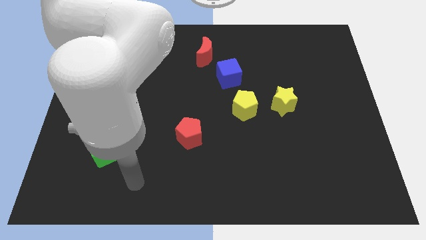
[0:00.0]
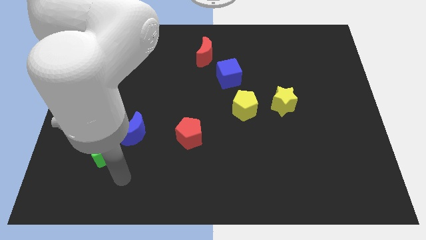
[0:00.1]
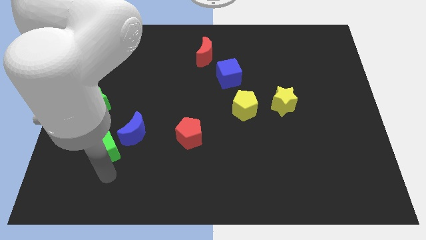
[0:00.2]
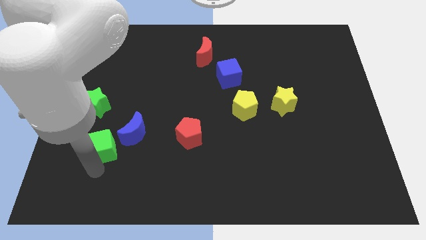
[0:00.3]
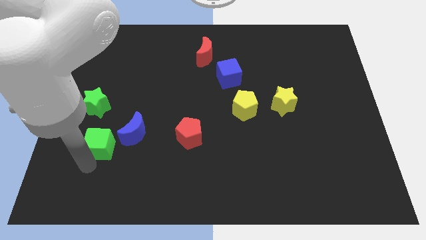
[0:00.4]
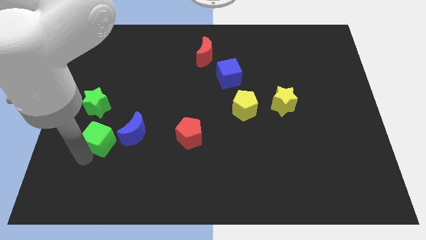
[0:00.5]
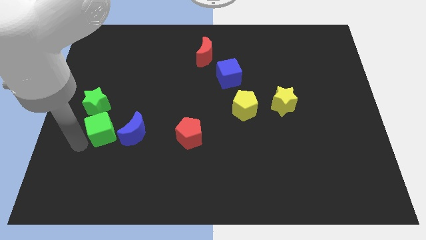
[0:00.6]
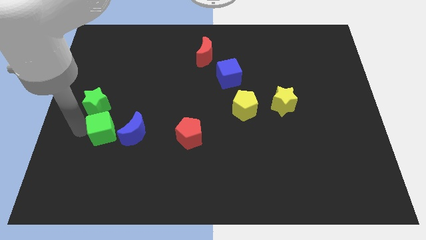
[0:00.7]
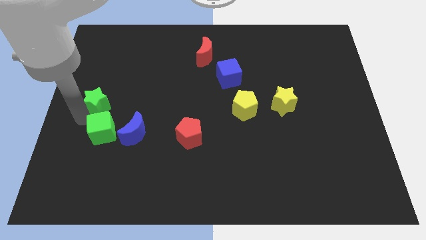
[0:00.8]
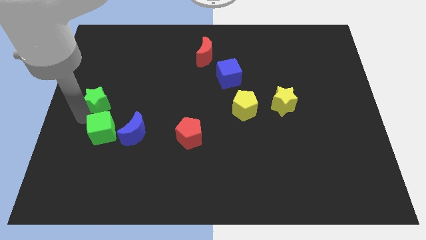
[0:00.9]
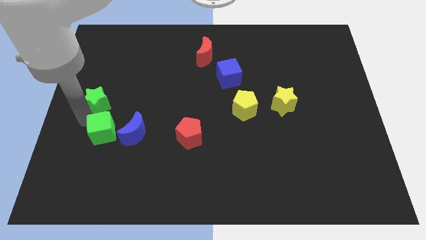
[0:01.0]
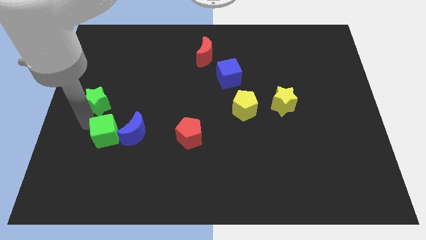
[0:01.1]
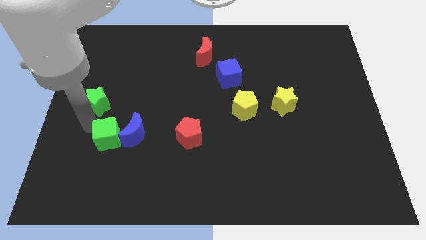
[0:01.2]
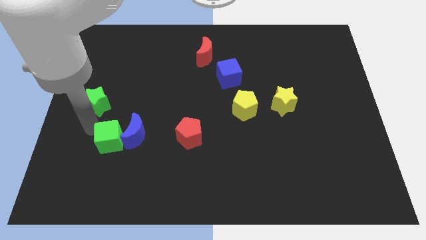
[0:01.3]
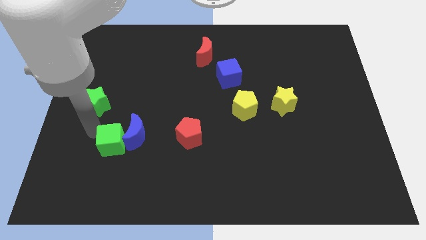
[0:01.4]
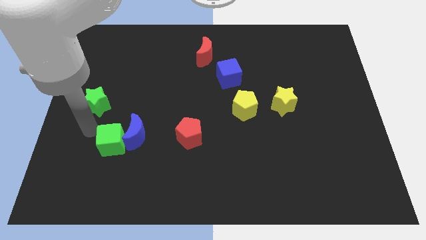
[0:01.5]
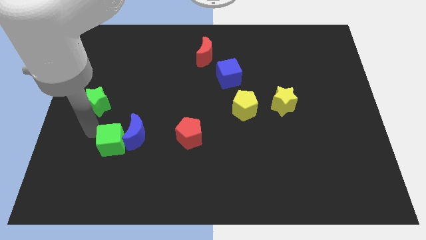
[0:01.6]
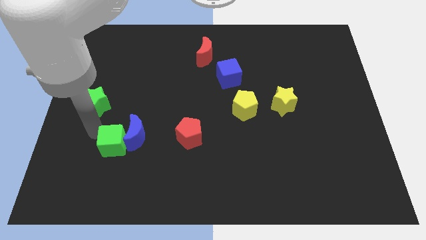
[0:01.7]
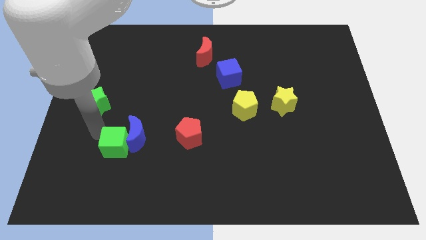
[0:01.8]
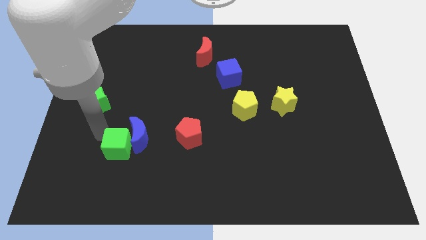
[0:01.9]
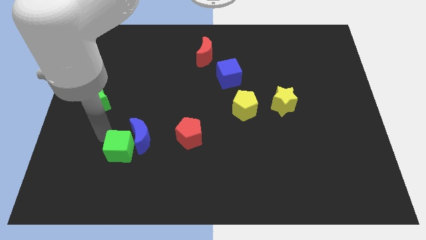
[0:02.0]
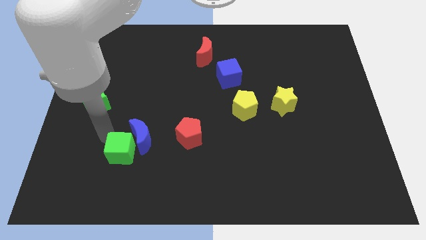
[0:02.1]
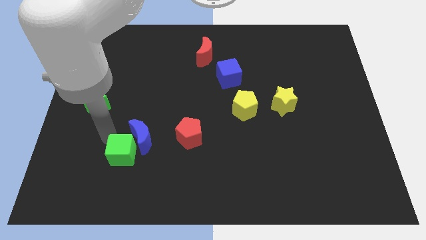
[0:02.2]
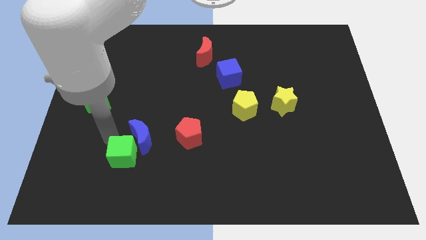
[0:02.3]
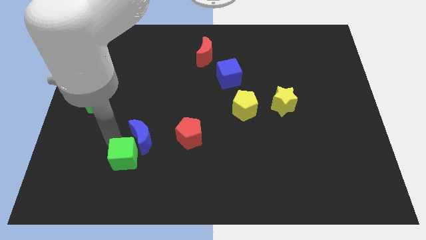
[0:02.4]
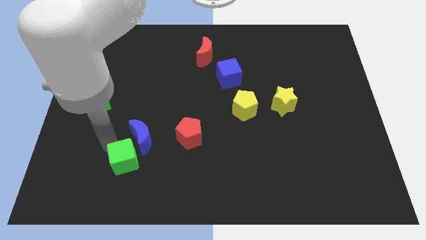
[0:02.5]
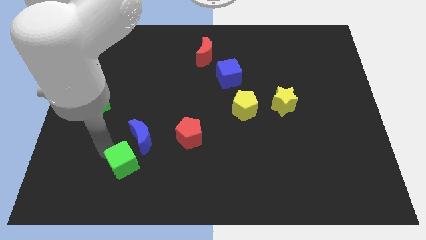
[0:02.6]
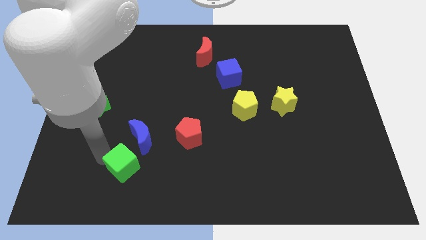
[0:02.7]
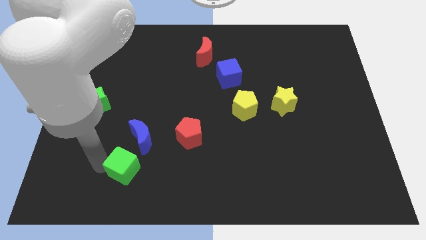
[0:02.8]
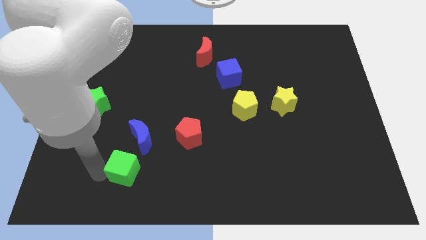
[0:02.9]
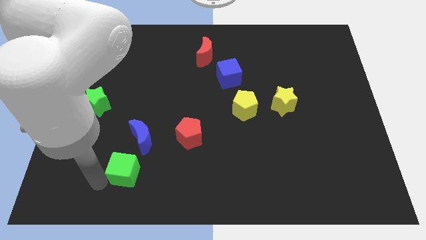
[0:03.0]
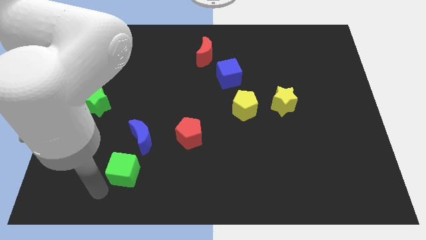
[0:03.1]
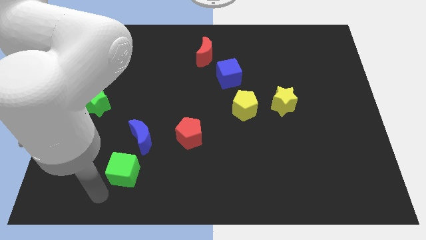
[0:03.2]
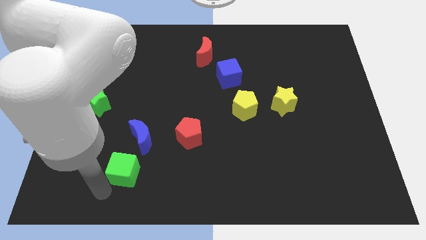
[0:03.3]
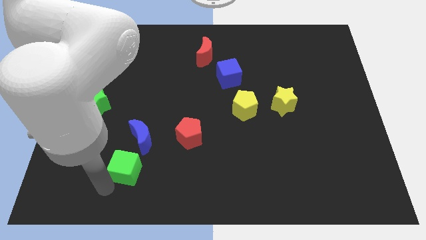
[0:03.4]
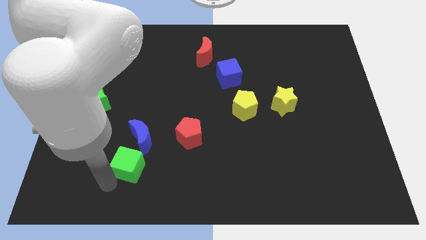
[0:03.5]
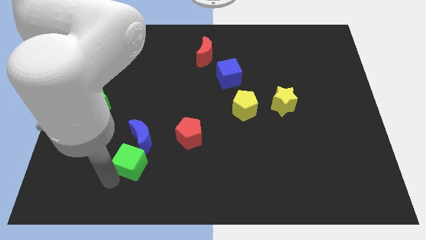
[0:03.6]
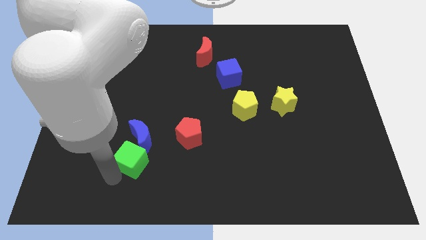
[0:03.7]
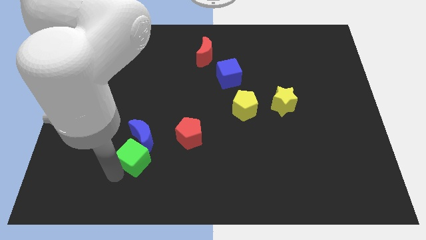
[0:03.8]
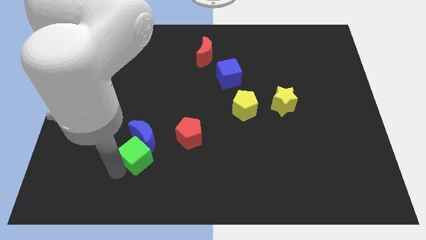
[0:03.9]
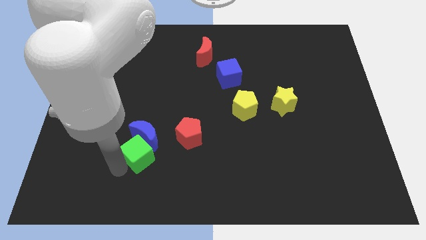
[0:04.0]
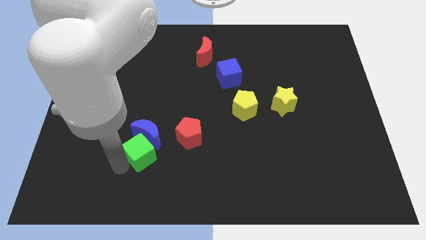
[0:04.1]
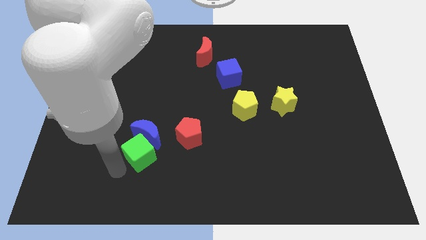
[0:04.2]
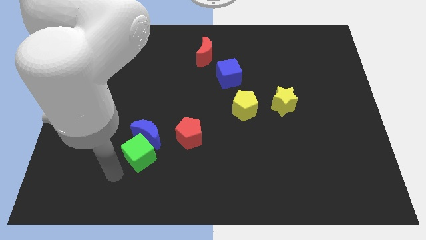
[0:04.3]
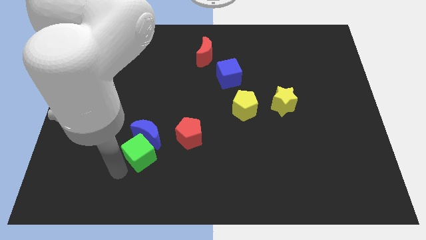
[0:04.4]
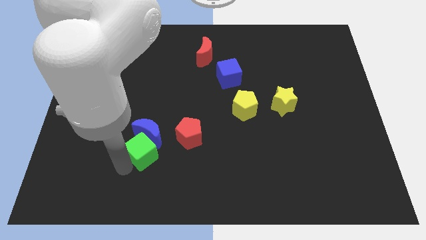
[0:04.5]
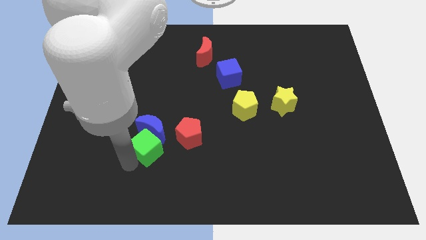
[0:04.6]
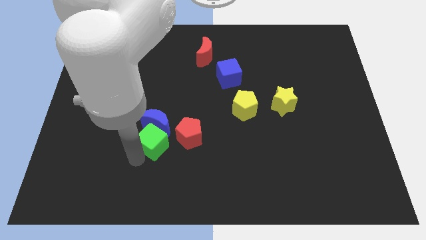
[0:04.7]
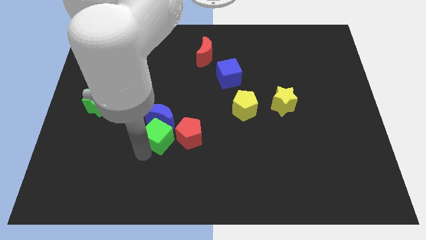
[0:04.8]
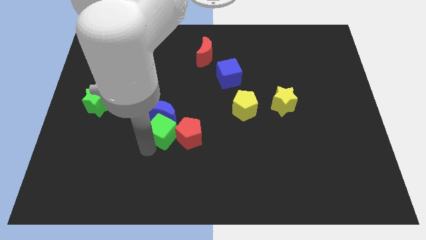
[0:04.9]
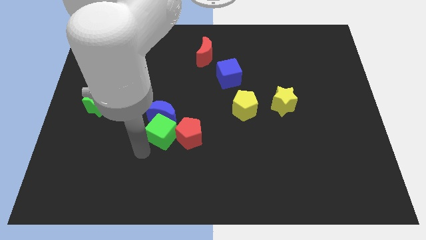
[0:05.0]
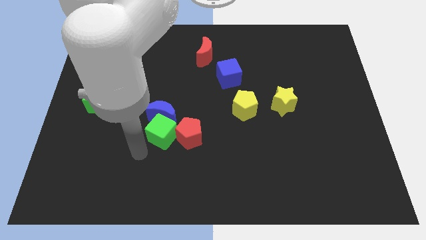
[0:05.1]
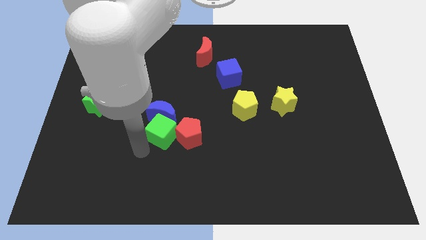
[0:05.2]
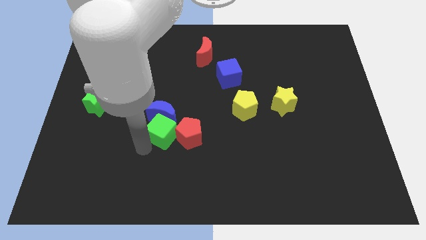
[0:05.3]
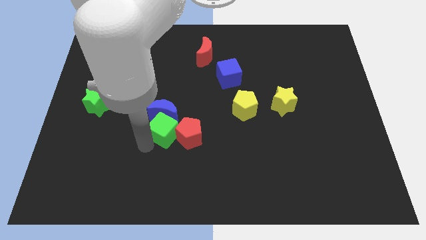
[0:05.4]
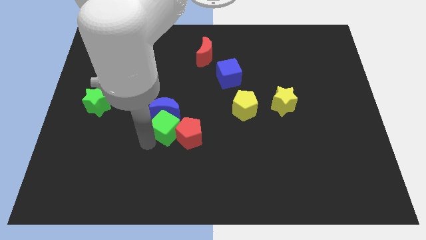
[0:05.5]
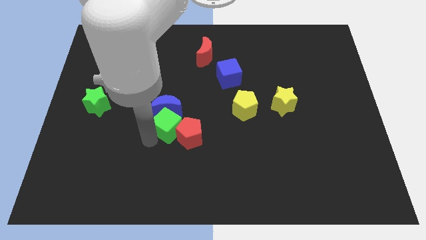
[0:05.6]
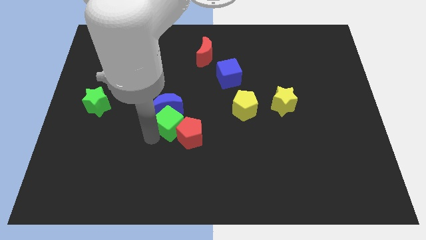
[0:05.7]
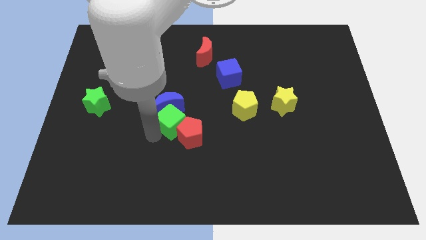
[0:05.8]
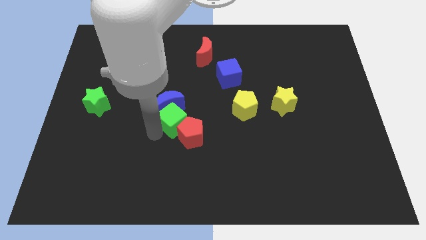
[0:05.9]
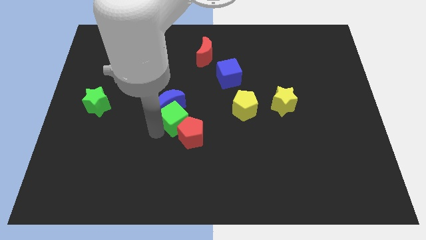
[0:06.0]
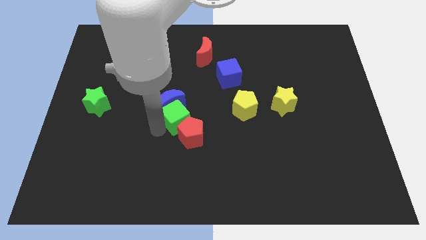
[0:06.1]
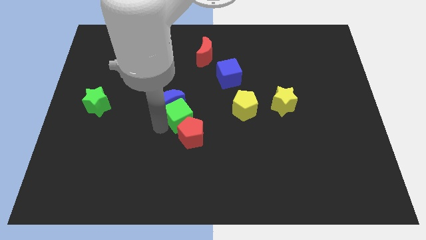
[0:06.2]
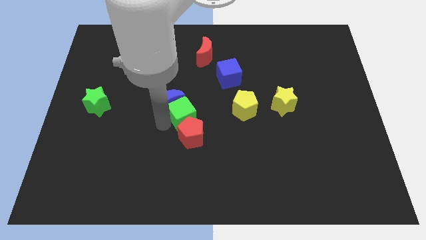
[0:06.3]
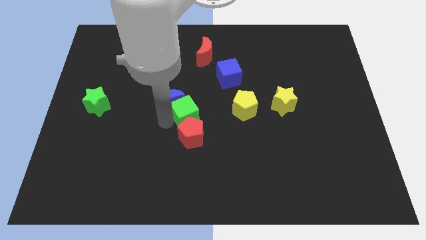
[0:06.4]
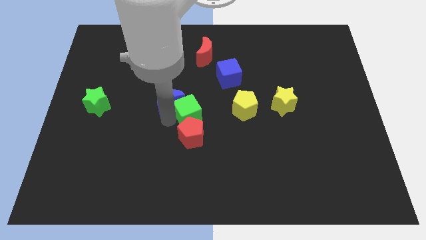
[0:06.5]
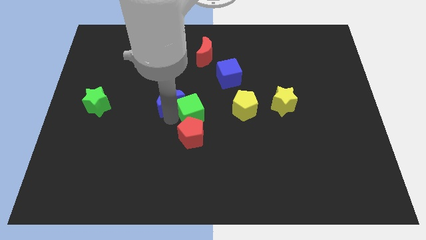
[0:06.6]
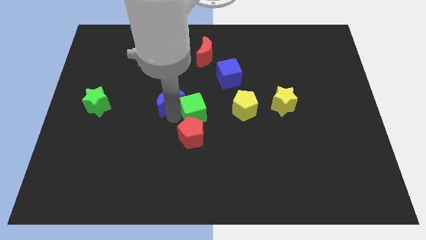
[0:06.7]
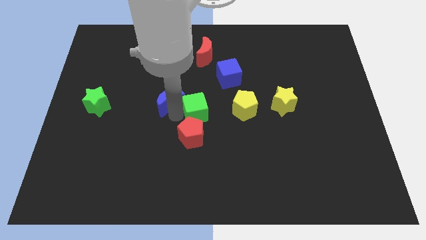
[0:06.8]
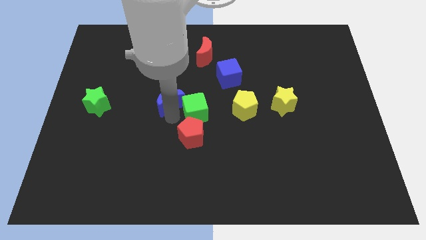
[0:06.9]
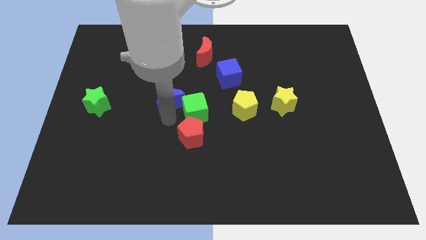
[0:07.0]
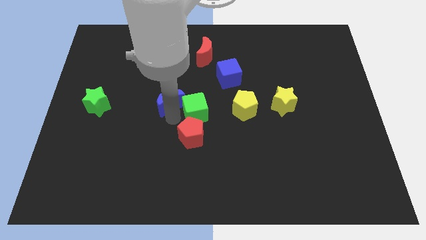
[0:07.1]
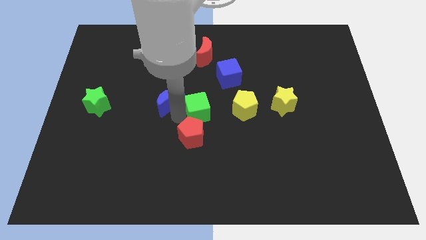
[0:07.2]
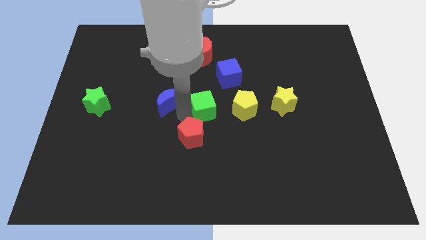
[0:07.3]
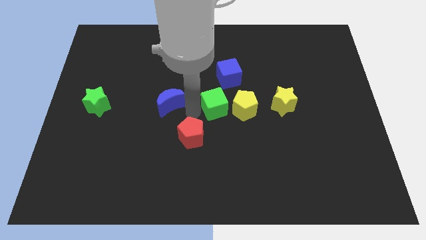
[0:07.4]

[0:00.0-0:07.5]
move the green cube left of the yellow star
